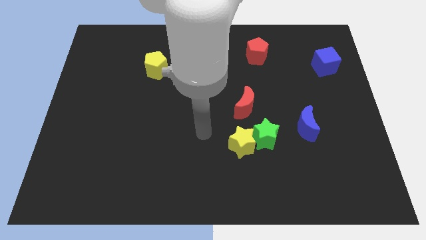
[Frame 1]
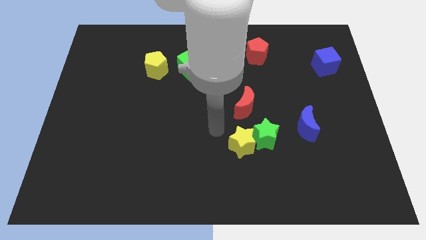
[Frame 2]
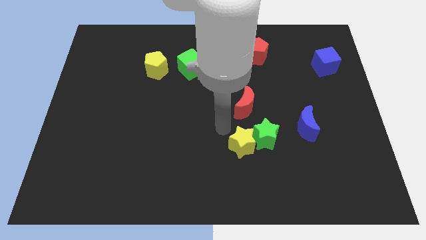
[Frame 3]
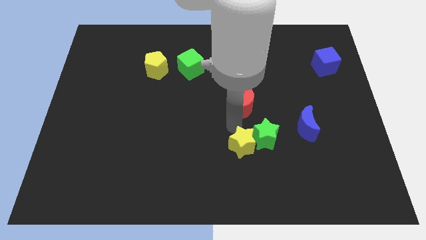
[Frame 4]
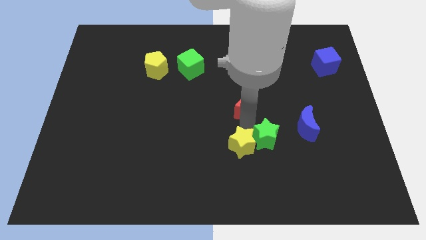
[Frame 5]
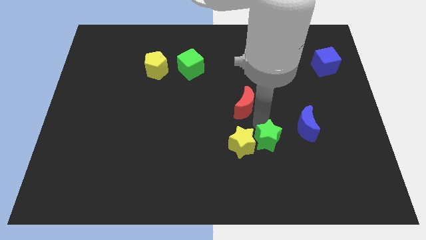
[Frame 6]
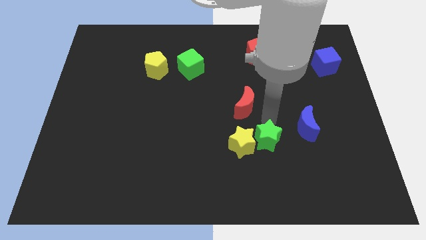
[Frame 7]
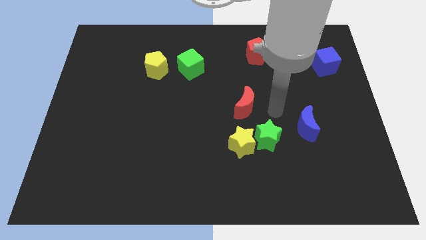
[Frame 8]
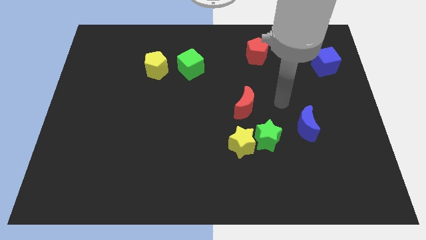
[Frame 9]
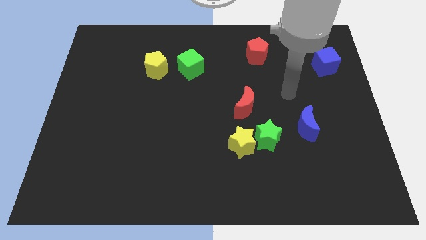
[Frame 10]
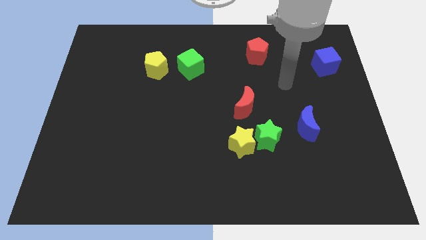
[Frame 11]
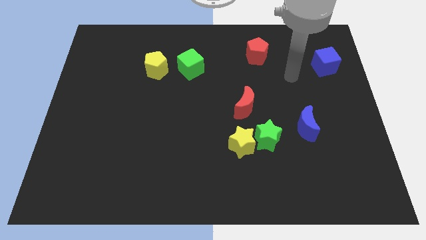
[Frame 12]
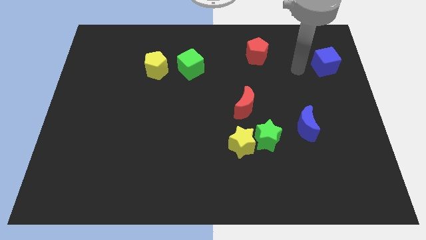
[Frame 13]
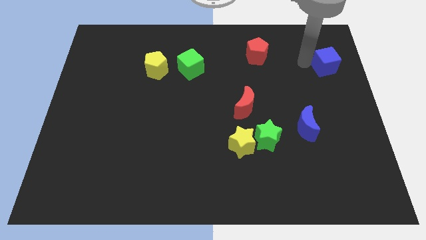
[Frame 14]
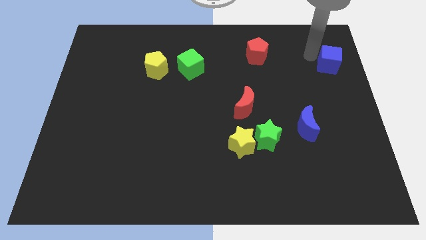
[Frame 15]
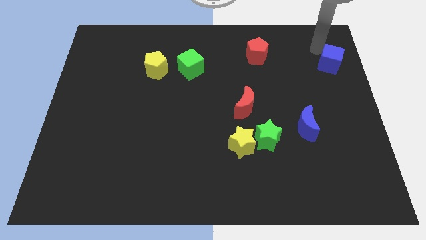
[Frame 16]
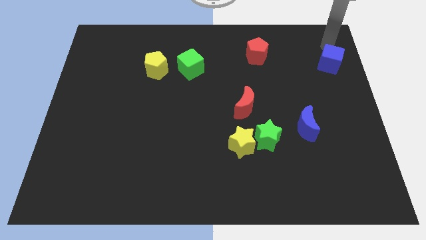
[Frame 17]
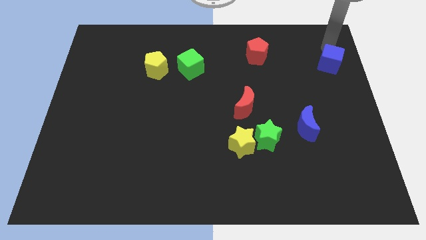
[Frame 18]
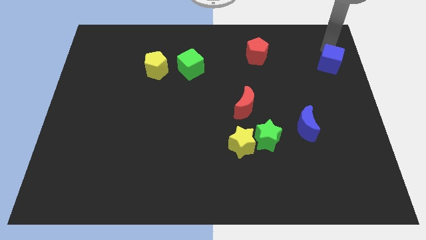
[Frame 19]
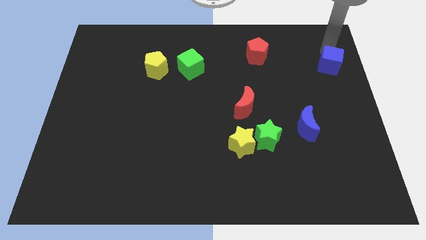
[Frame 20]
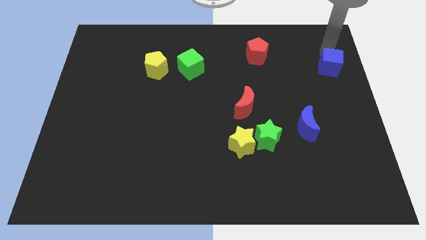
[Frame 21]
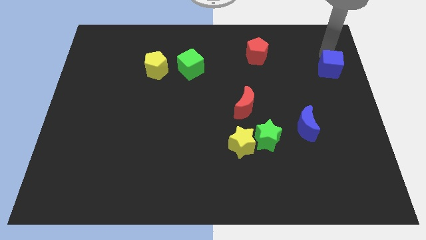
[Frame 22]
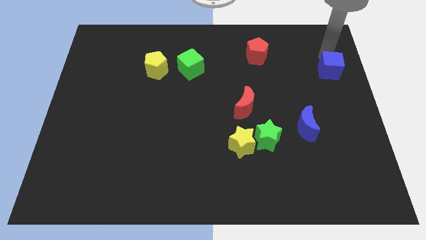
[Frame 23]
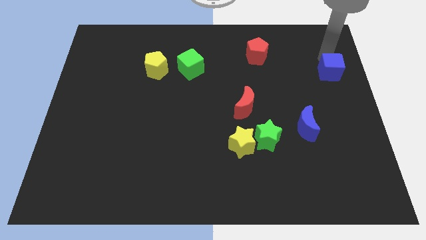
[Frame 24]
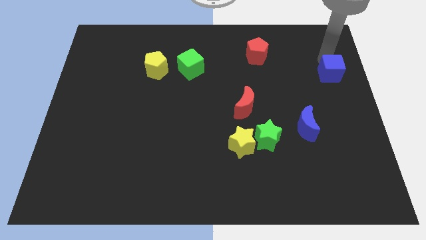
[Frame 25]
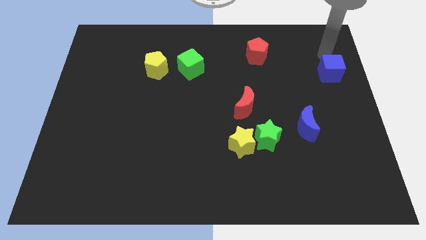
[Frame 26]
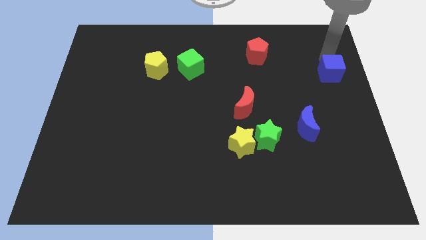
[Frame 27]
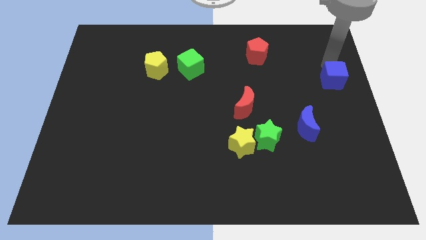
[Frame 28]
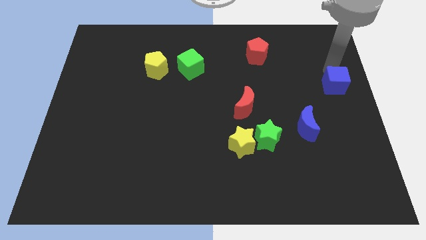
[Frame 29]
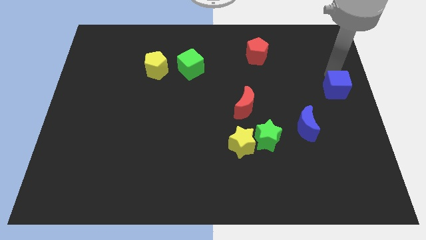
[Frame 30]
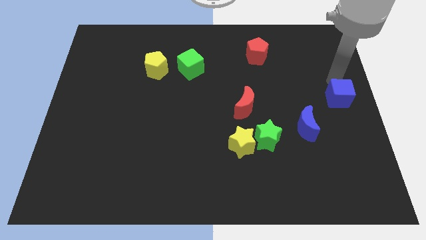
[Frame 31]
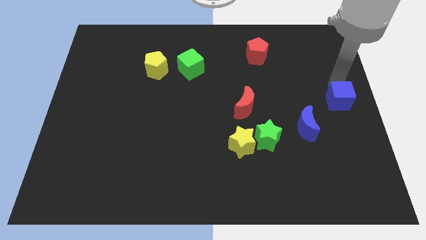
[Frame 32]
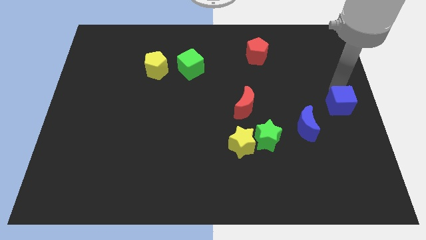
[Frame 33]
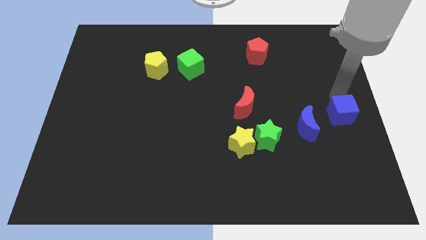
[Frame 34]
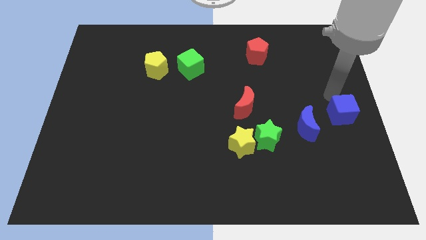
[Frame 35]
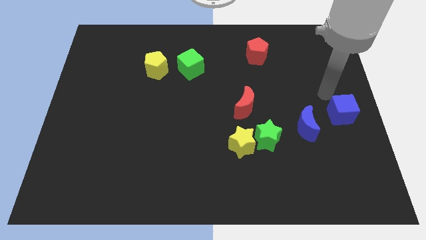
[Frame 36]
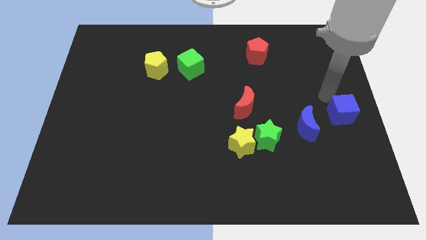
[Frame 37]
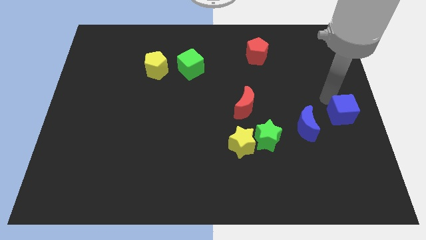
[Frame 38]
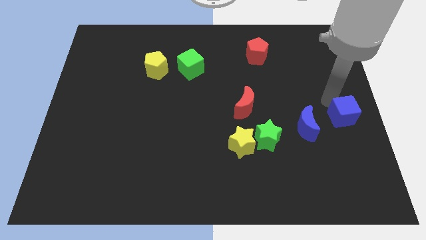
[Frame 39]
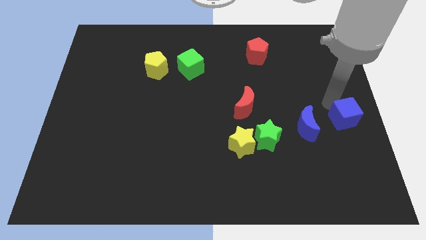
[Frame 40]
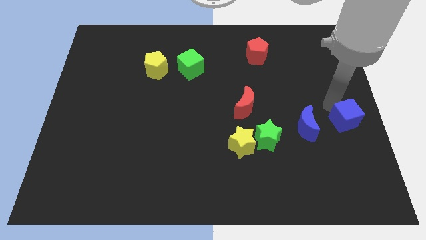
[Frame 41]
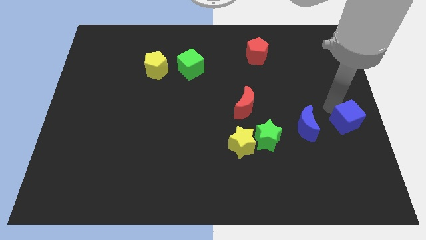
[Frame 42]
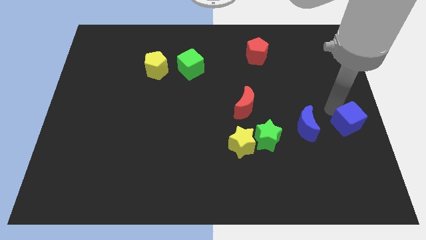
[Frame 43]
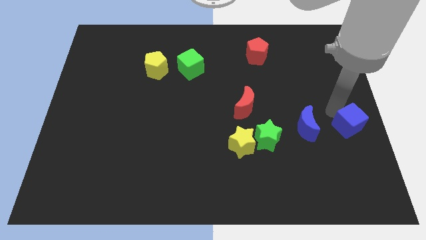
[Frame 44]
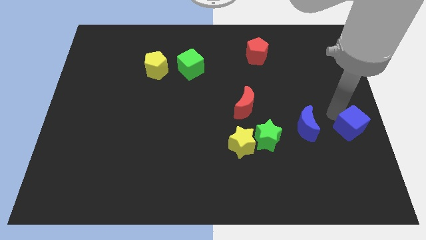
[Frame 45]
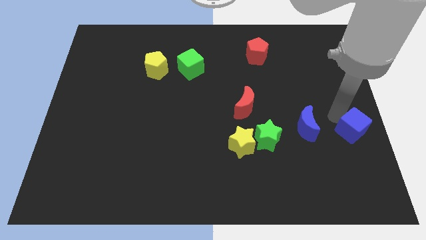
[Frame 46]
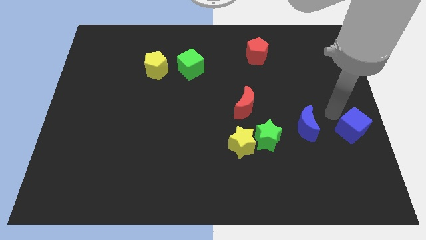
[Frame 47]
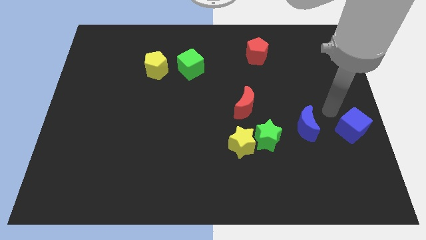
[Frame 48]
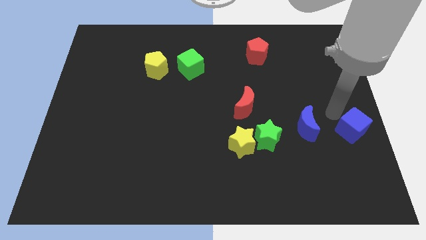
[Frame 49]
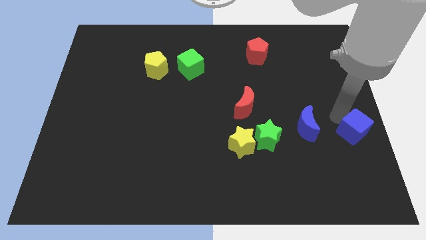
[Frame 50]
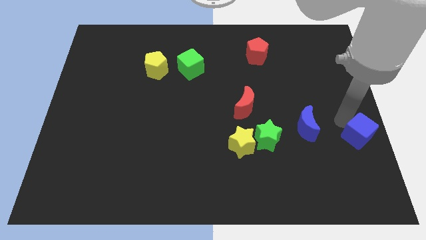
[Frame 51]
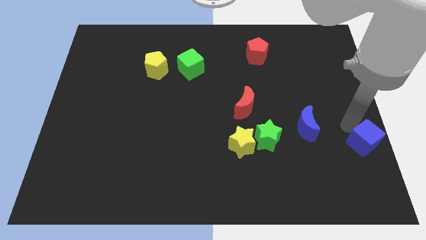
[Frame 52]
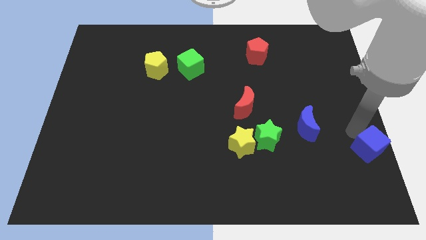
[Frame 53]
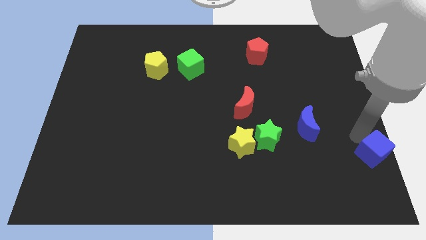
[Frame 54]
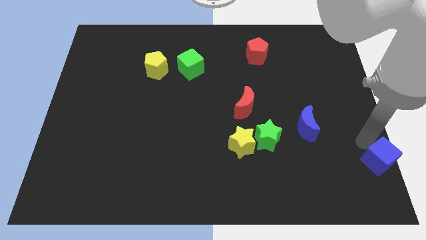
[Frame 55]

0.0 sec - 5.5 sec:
push the blue cube to the bottom right corner
